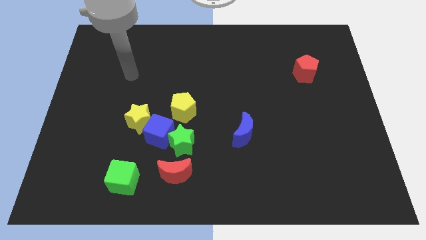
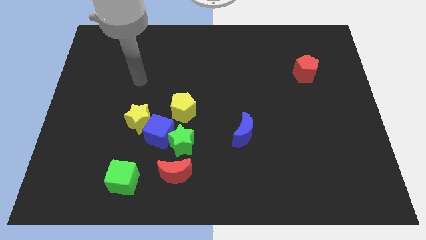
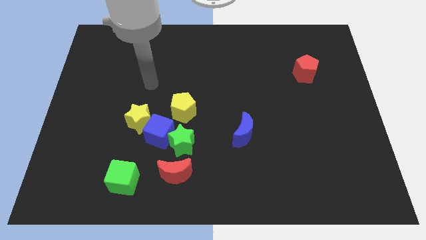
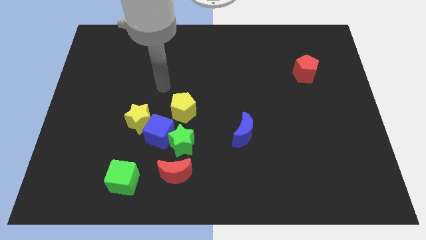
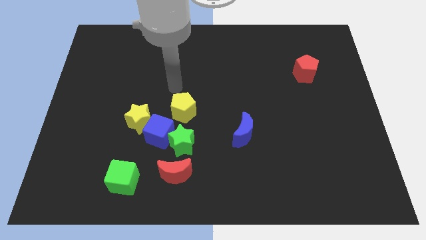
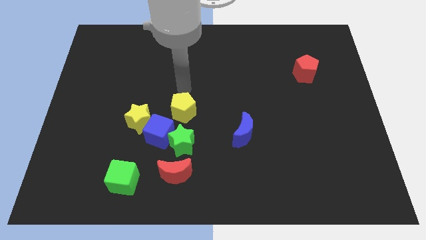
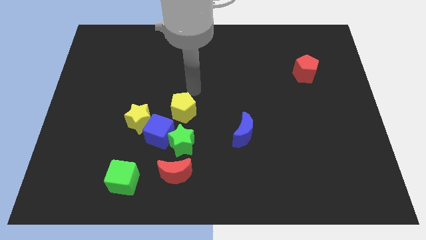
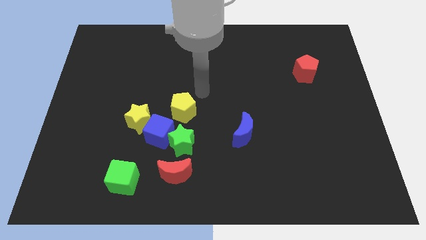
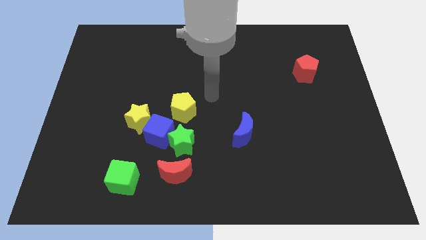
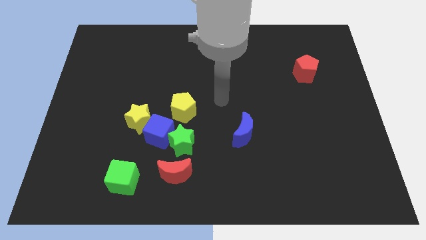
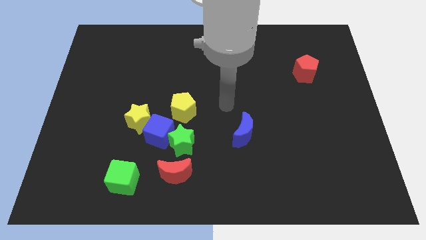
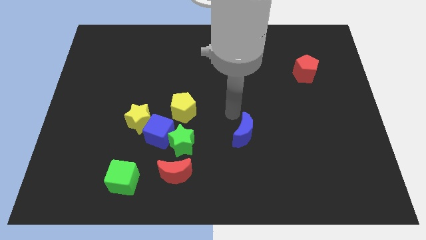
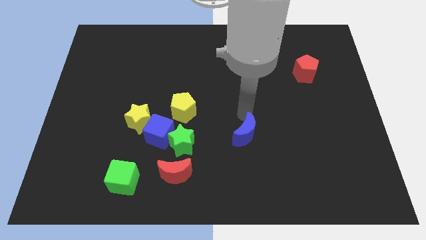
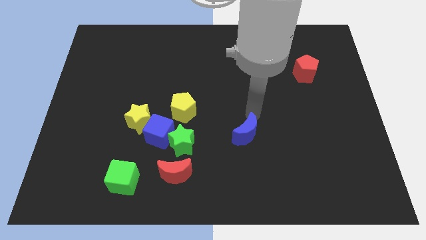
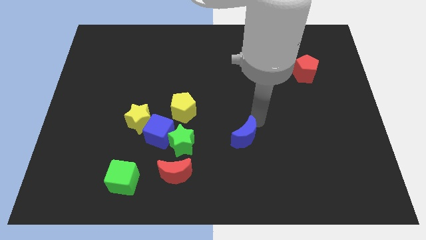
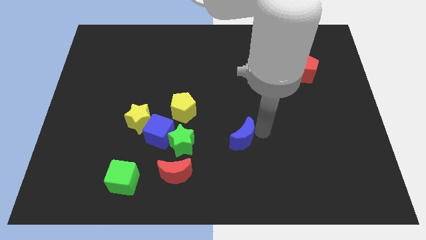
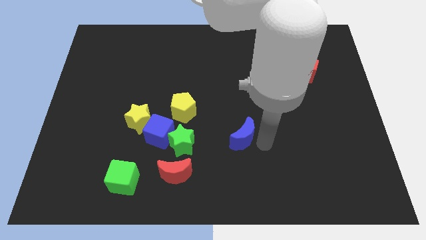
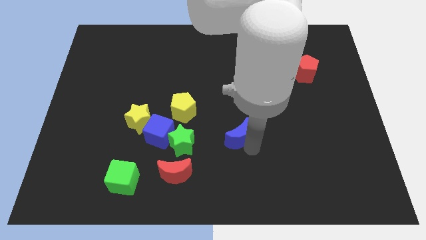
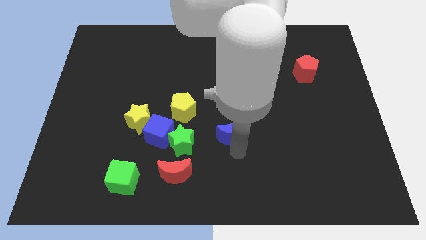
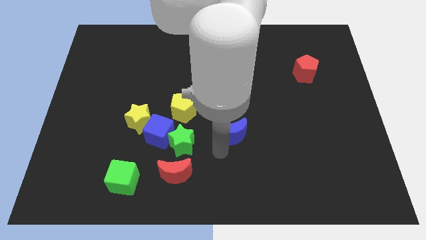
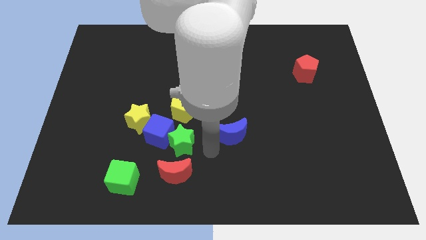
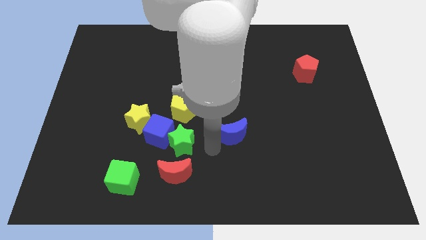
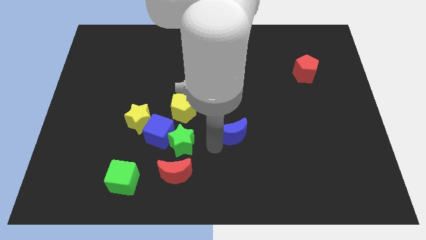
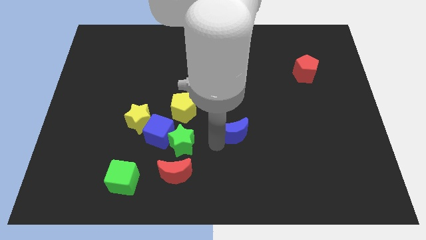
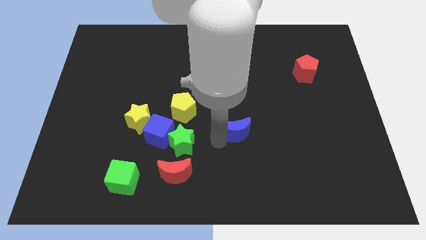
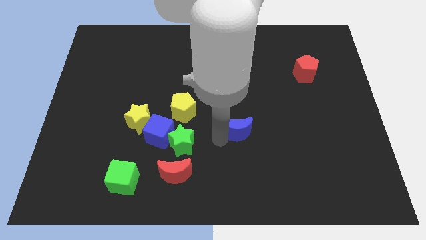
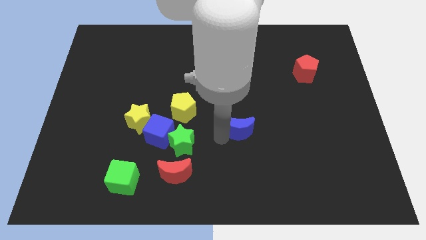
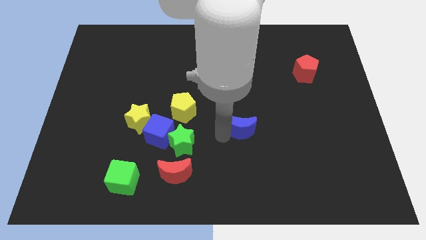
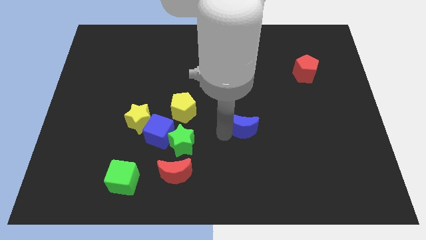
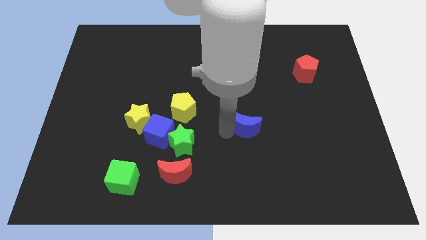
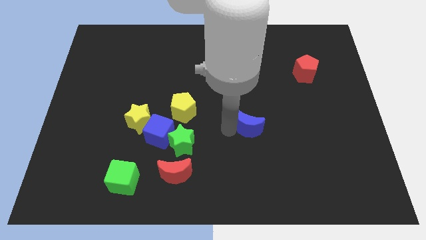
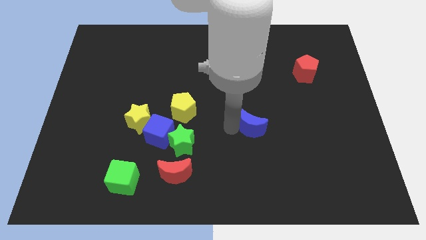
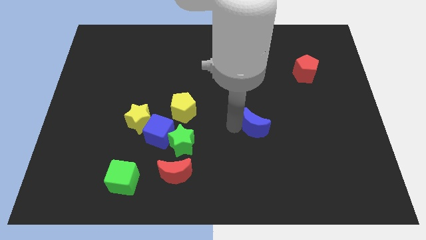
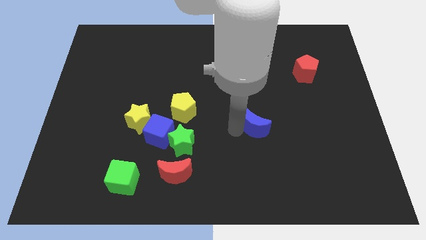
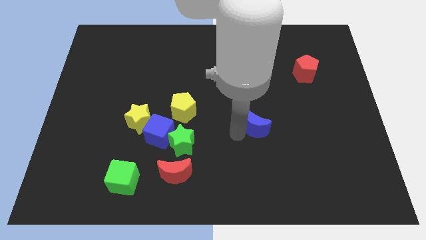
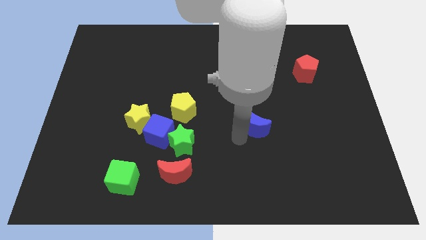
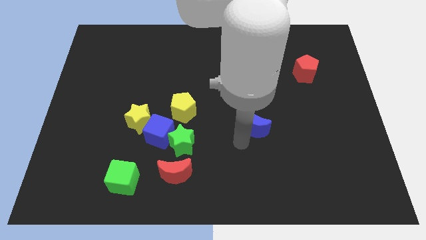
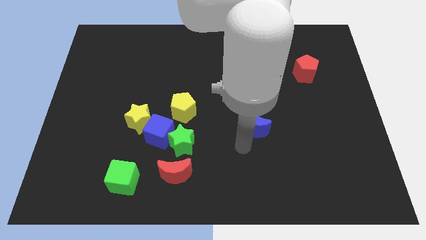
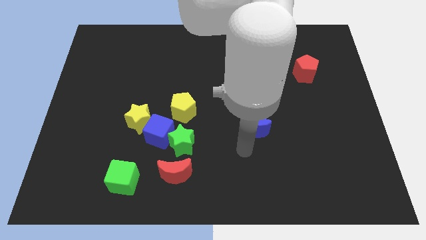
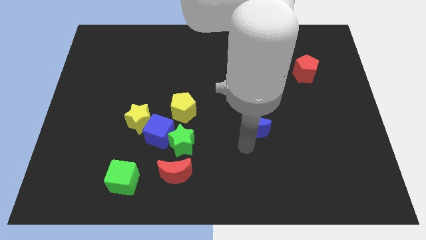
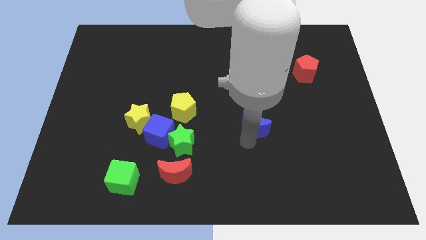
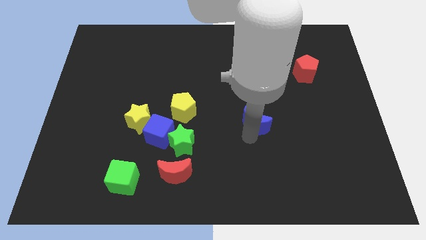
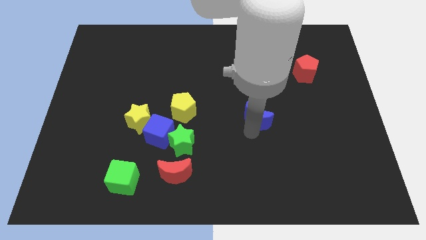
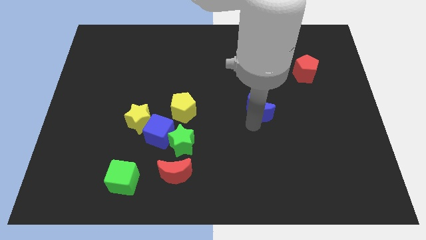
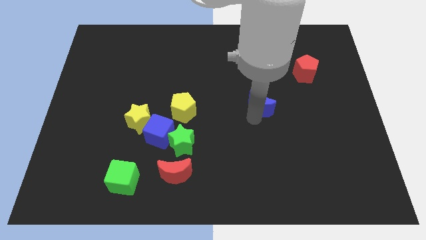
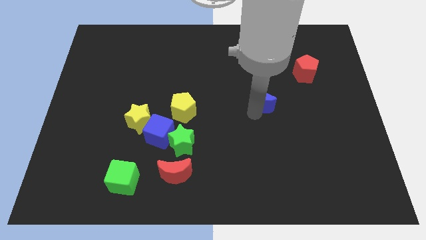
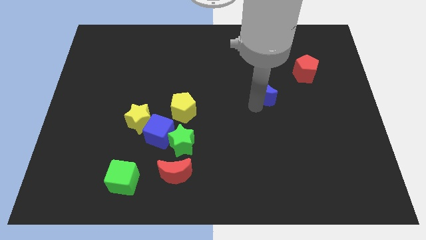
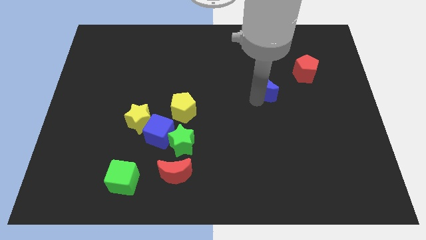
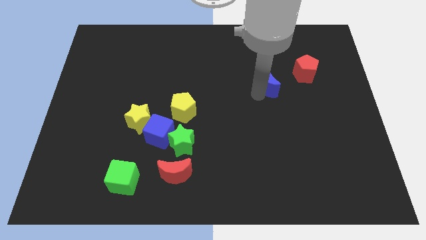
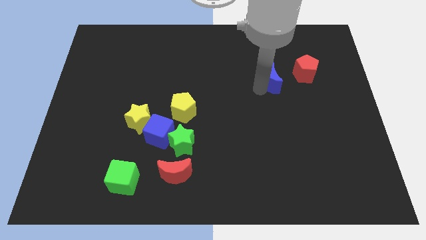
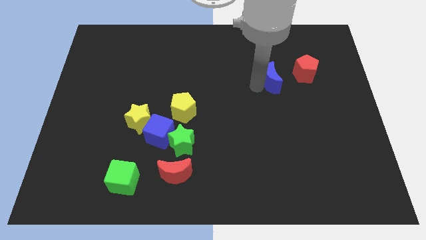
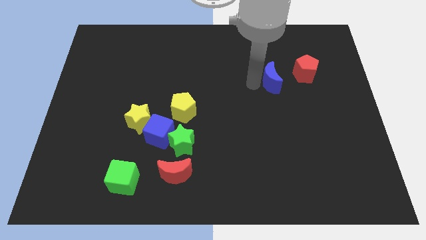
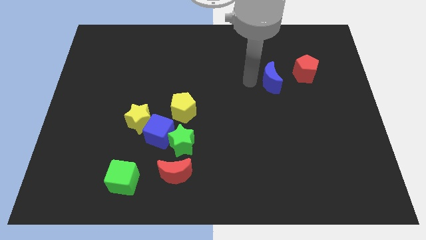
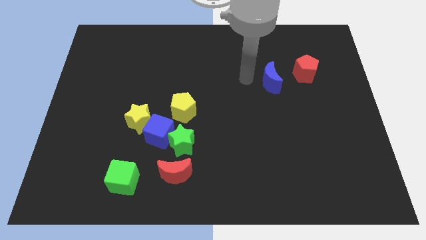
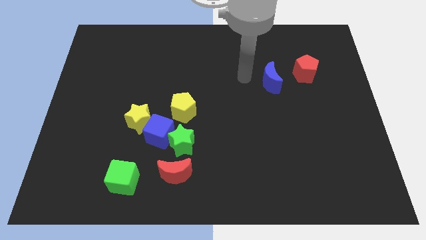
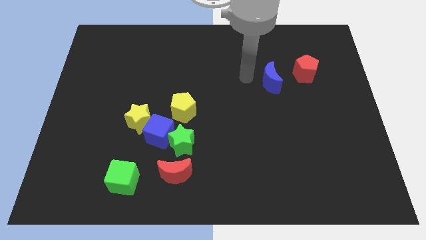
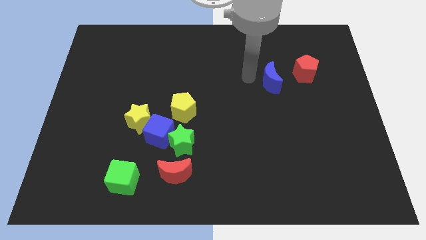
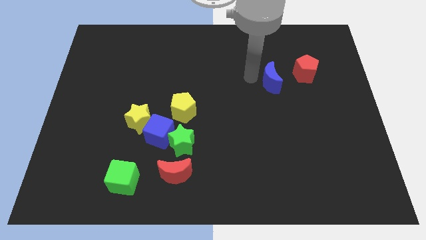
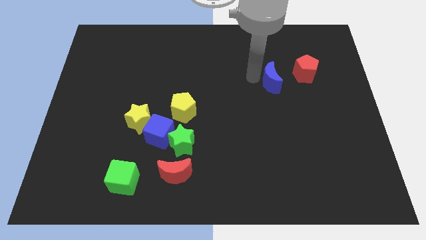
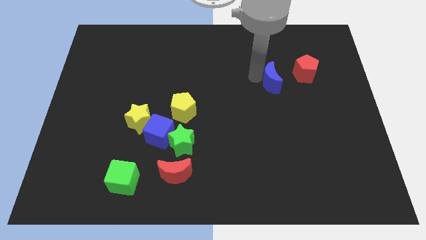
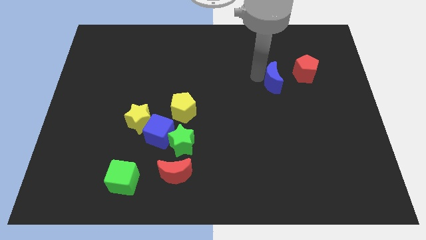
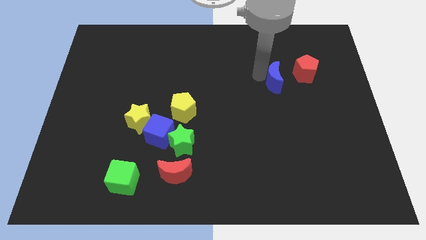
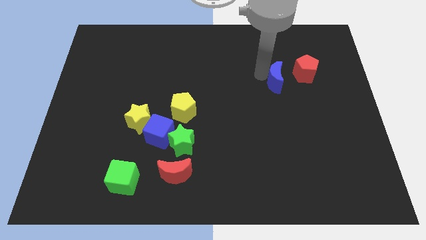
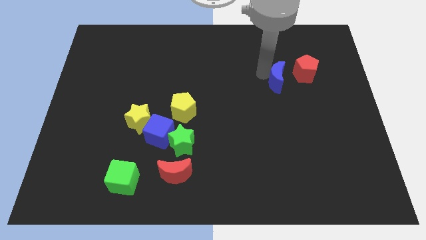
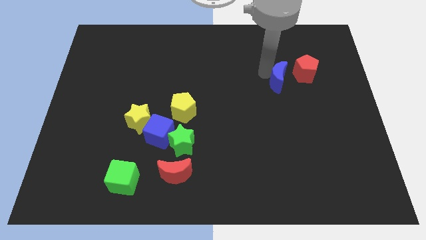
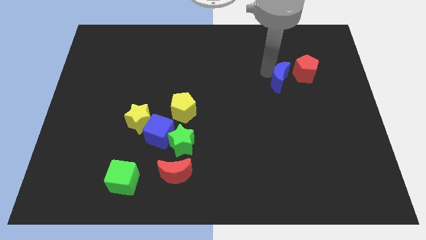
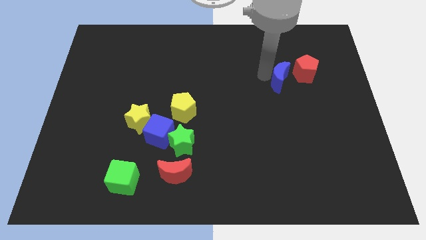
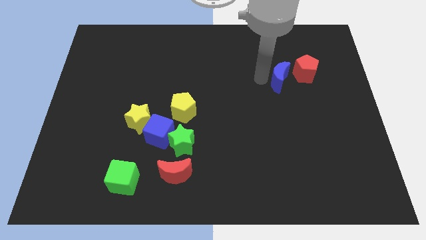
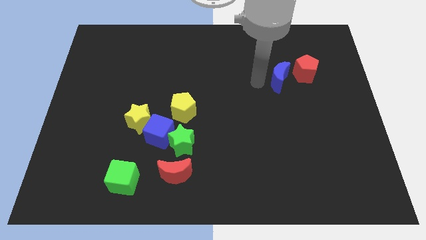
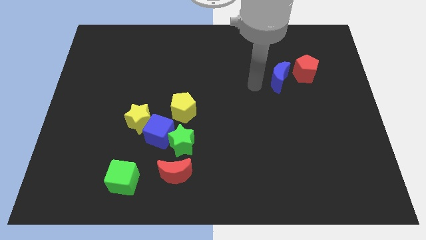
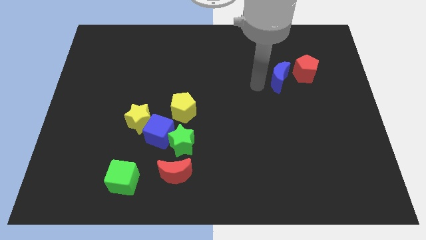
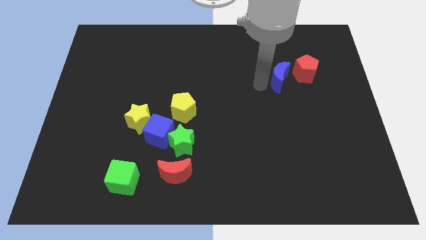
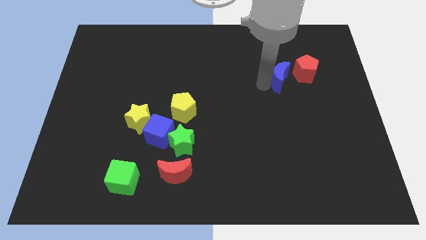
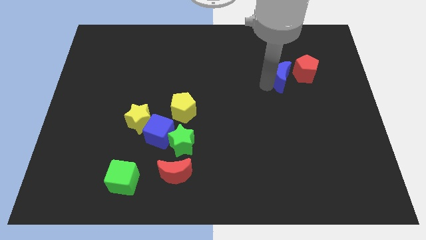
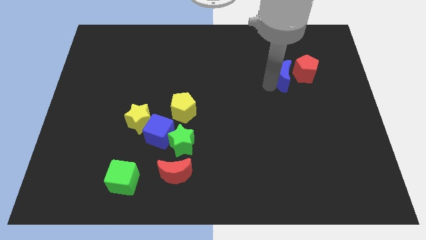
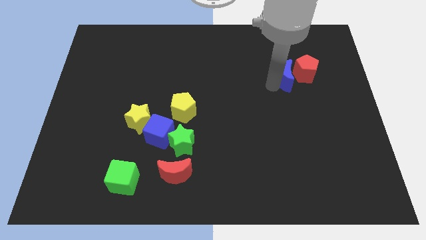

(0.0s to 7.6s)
slide the blue moon towards the red pentagon
